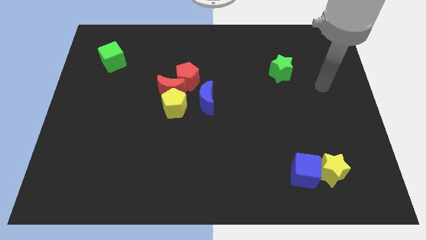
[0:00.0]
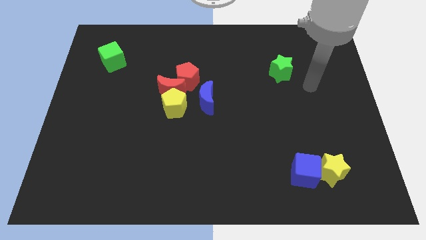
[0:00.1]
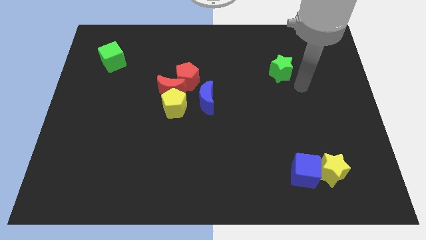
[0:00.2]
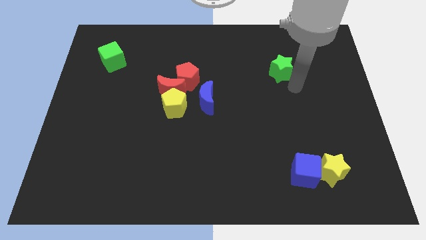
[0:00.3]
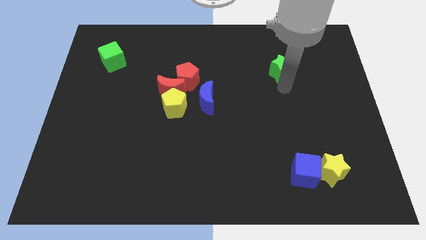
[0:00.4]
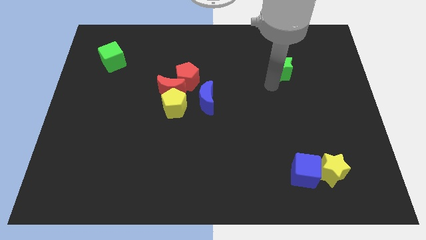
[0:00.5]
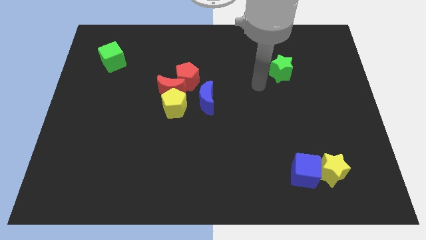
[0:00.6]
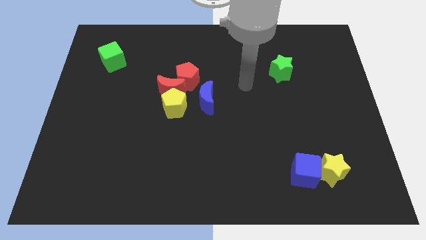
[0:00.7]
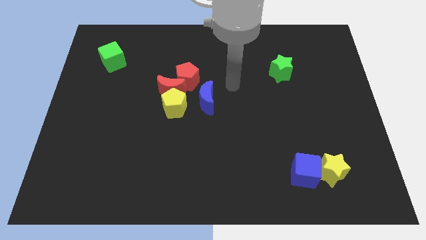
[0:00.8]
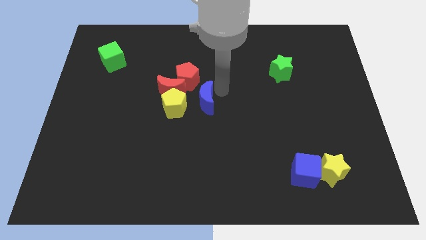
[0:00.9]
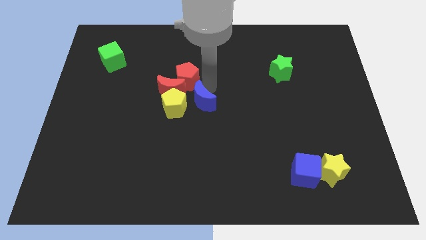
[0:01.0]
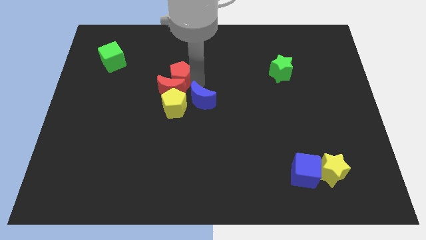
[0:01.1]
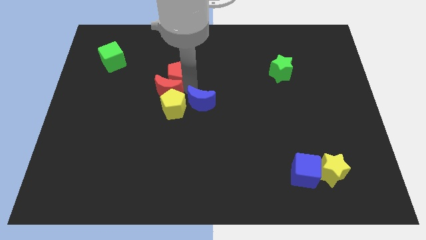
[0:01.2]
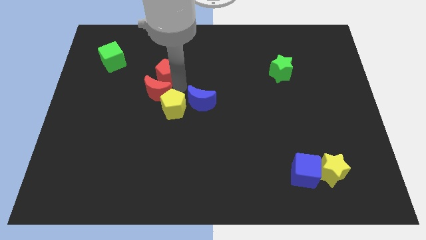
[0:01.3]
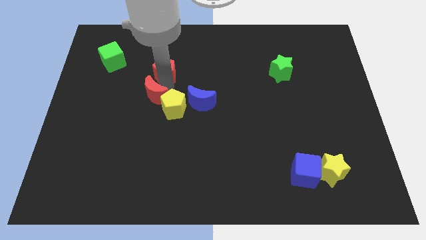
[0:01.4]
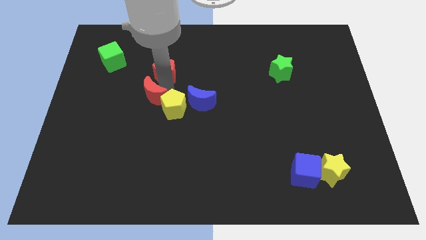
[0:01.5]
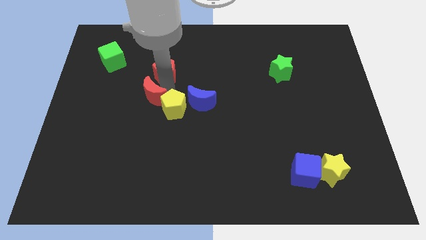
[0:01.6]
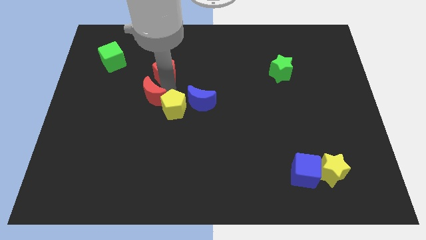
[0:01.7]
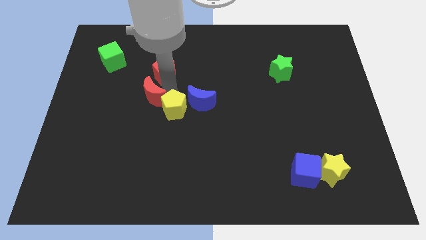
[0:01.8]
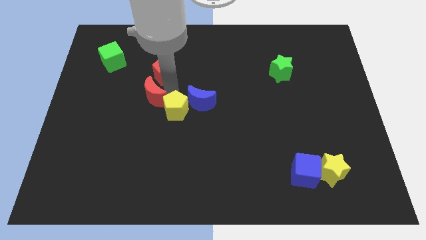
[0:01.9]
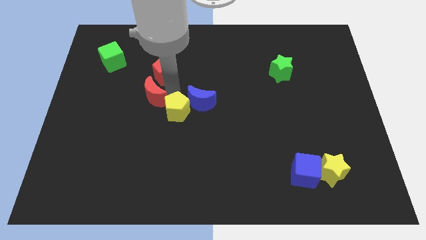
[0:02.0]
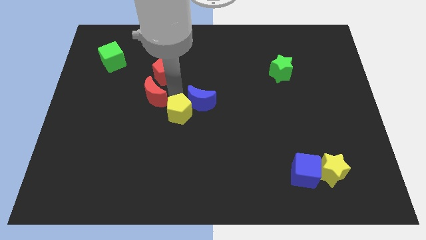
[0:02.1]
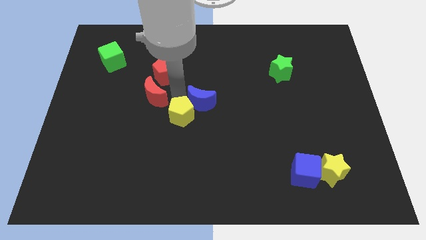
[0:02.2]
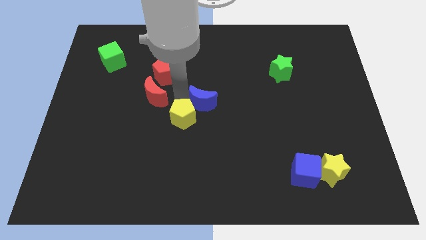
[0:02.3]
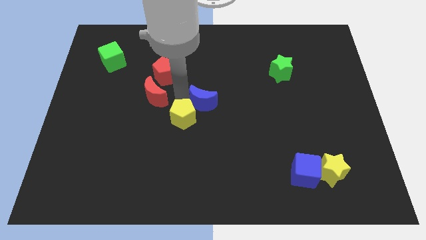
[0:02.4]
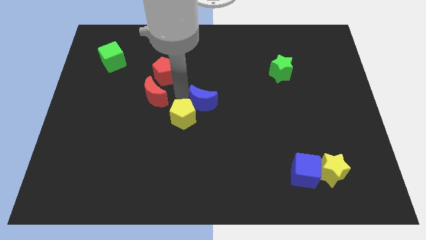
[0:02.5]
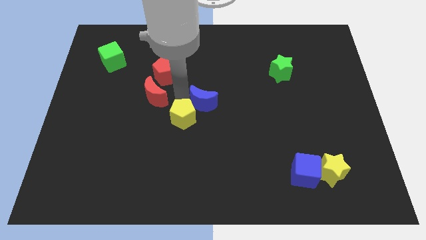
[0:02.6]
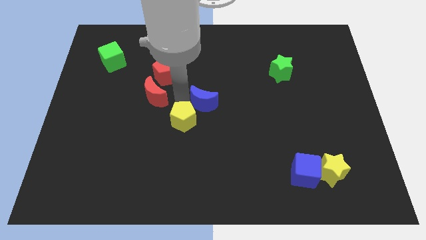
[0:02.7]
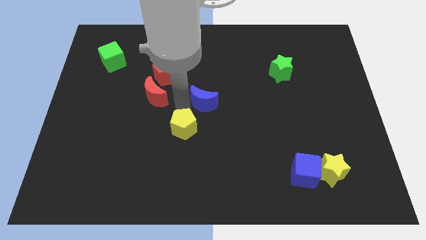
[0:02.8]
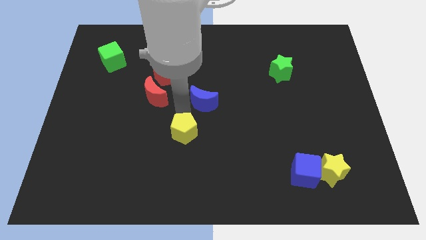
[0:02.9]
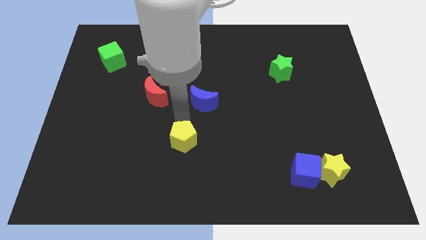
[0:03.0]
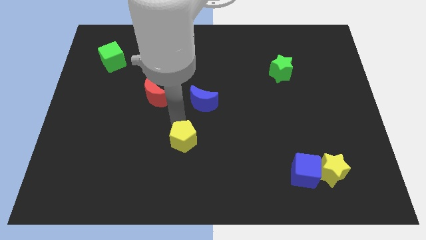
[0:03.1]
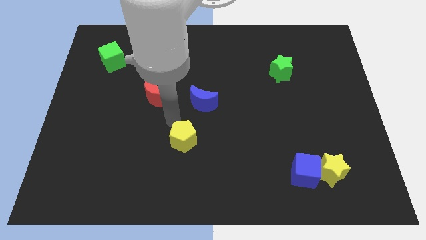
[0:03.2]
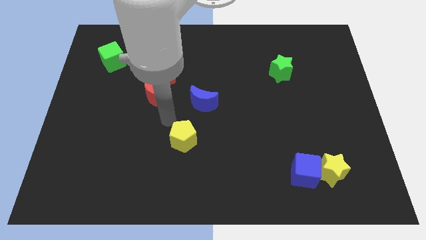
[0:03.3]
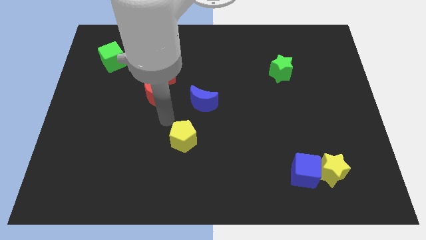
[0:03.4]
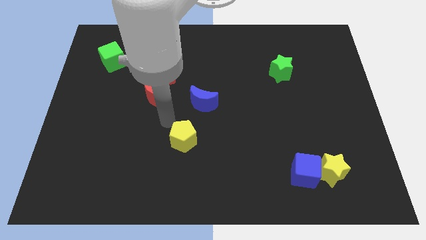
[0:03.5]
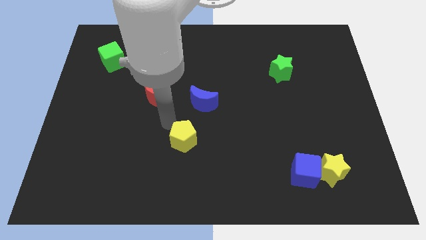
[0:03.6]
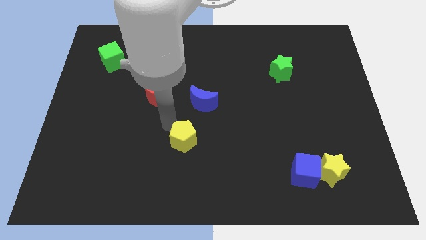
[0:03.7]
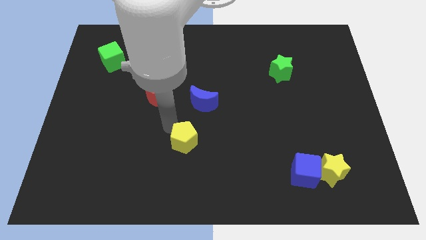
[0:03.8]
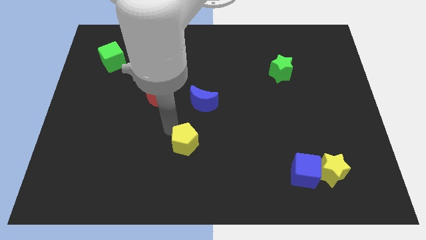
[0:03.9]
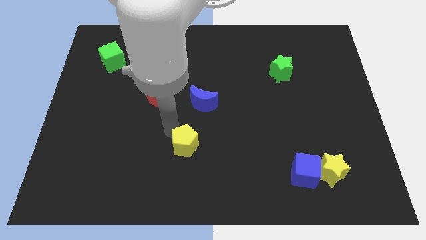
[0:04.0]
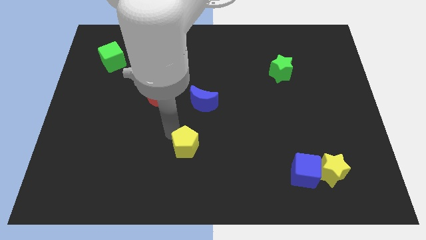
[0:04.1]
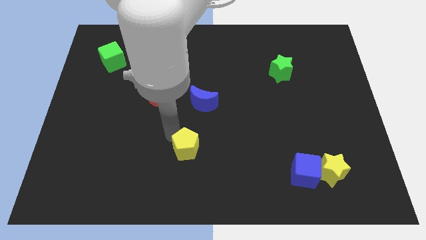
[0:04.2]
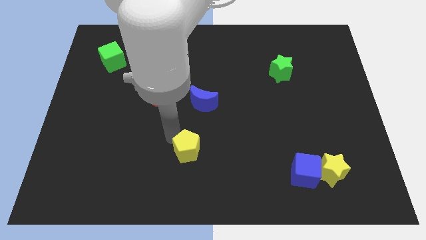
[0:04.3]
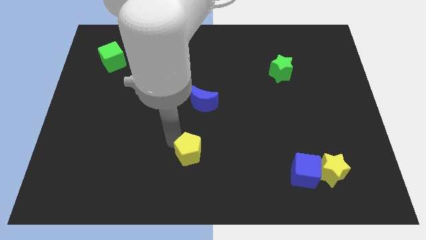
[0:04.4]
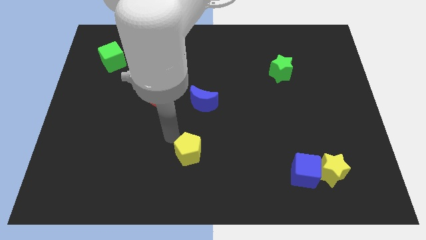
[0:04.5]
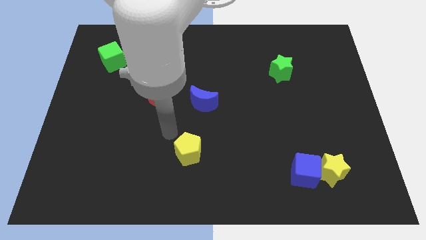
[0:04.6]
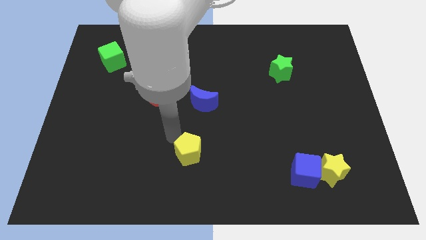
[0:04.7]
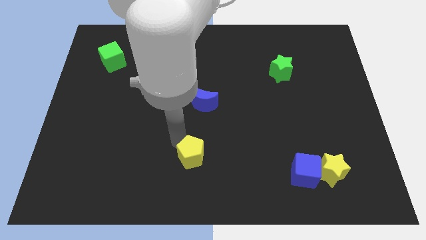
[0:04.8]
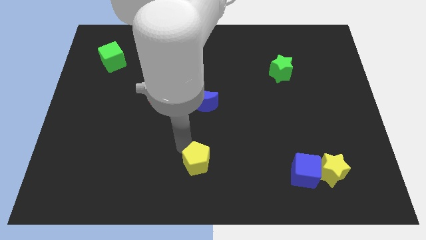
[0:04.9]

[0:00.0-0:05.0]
move the yellow pentagon to the bottom side

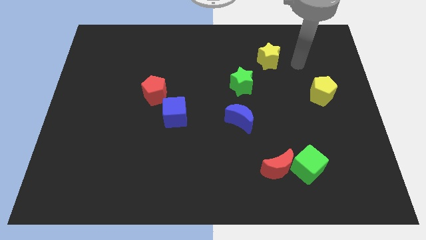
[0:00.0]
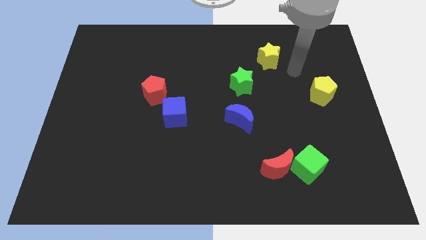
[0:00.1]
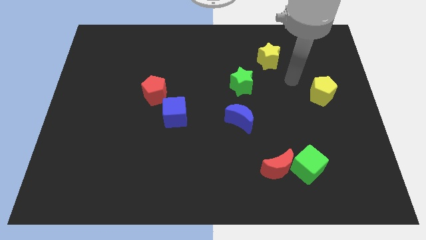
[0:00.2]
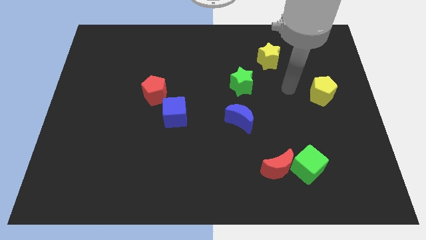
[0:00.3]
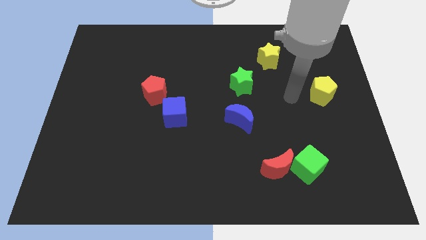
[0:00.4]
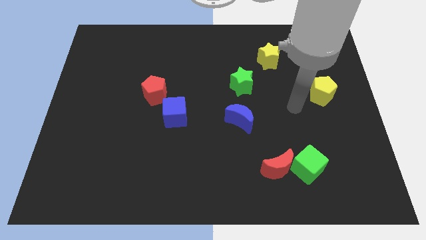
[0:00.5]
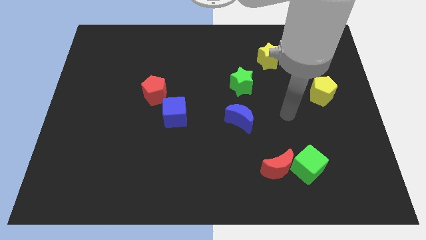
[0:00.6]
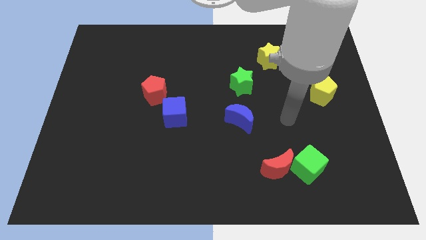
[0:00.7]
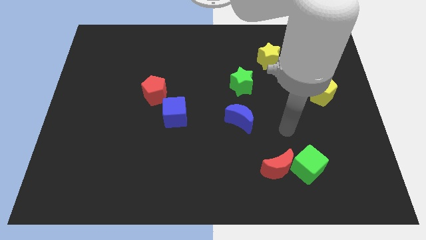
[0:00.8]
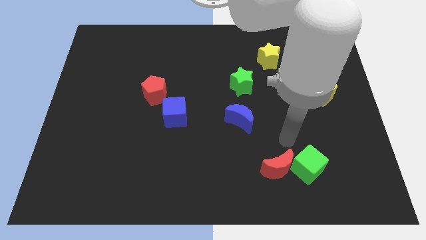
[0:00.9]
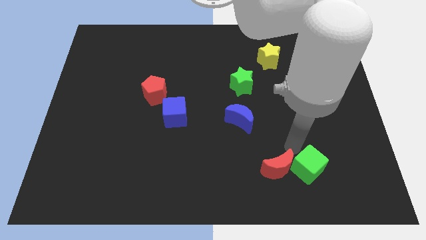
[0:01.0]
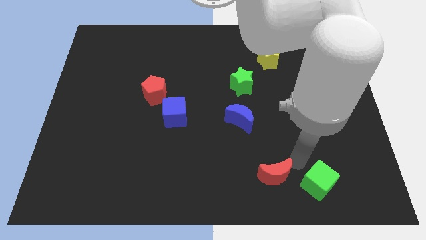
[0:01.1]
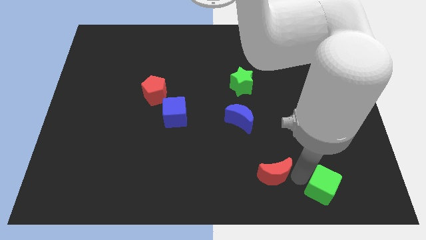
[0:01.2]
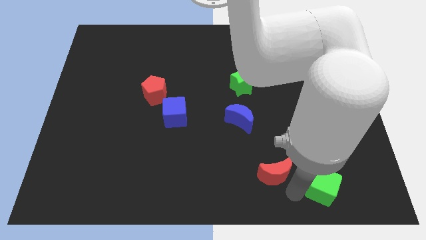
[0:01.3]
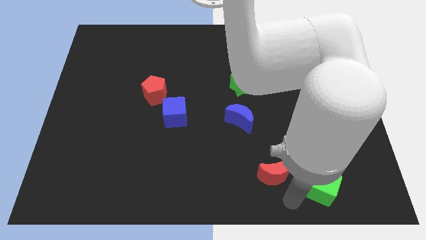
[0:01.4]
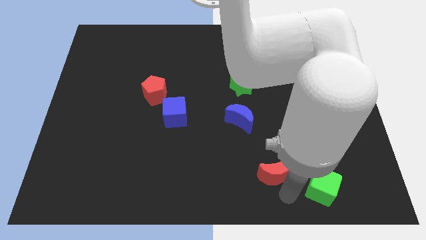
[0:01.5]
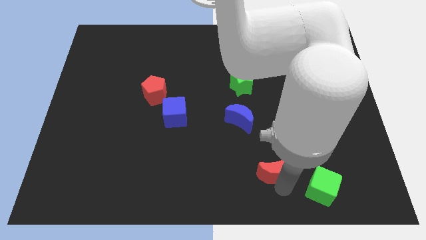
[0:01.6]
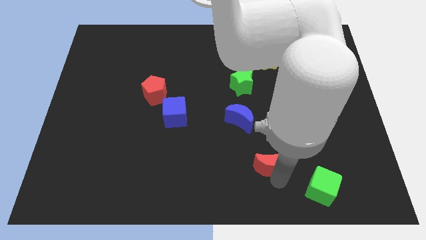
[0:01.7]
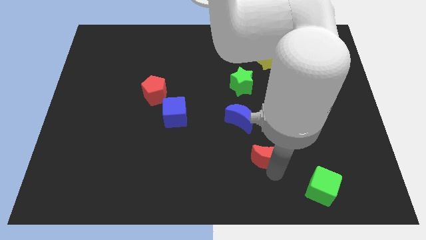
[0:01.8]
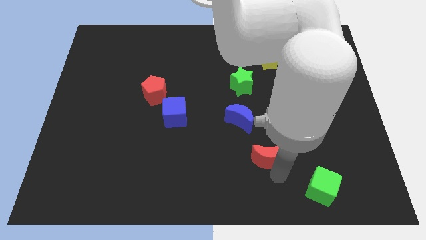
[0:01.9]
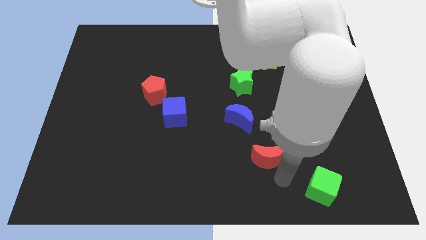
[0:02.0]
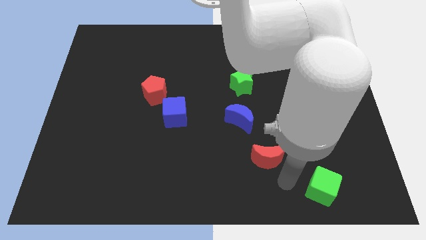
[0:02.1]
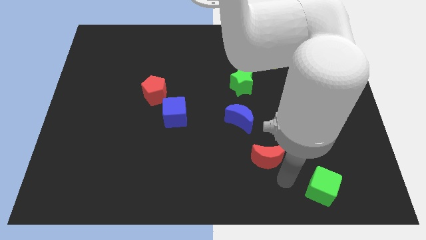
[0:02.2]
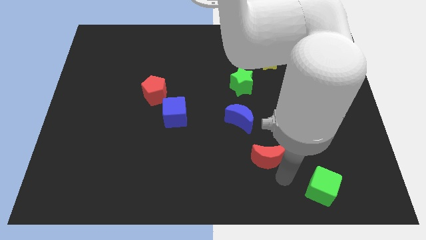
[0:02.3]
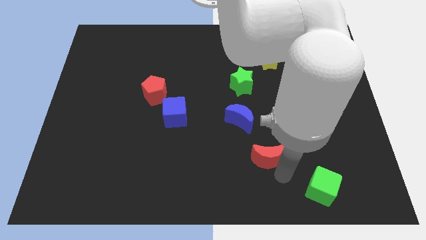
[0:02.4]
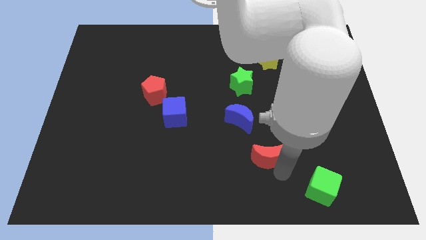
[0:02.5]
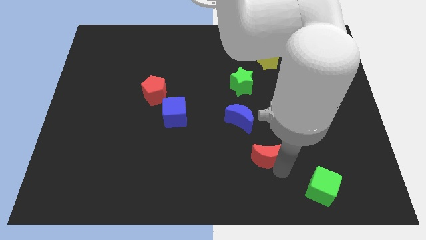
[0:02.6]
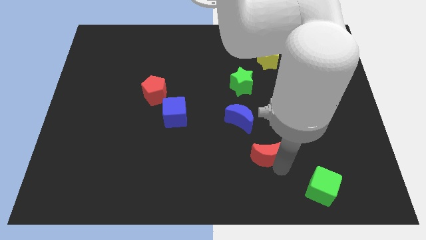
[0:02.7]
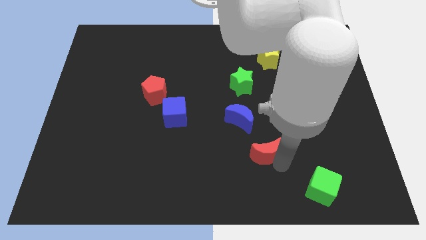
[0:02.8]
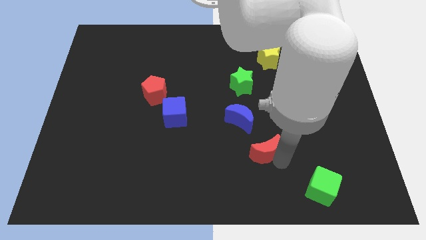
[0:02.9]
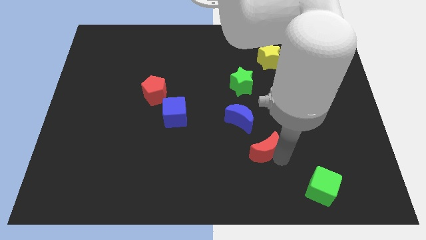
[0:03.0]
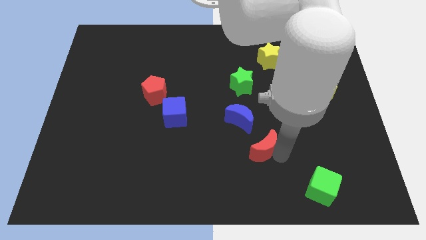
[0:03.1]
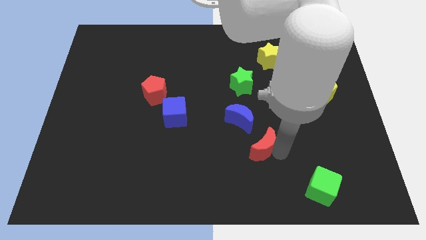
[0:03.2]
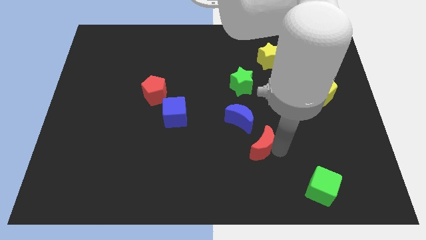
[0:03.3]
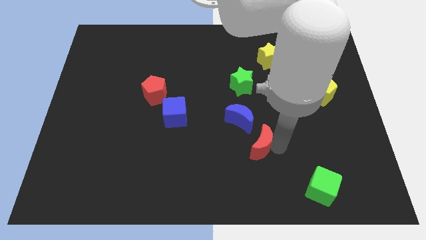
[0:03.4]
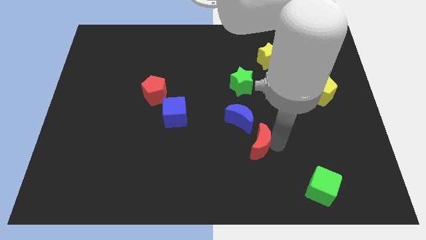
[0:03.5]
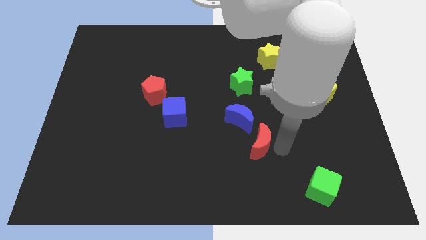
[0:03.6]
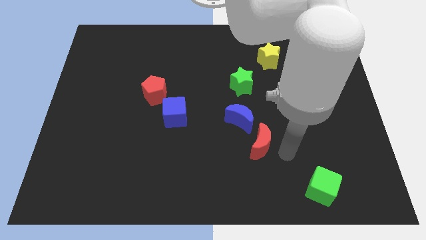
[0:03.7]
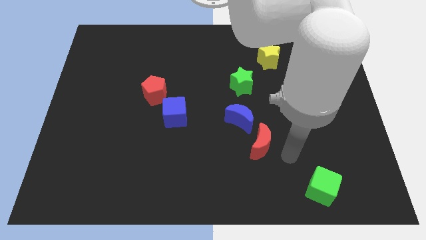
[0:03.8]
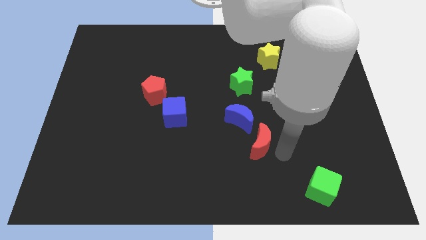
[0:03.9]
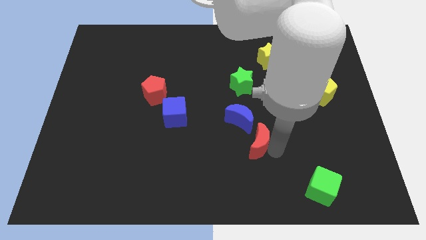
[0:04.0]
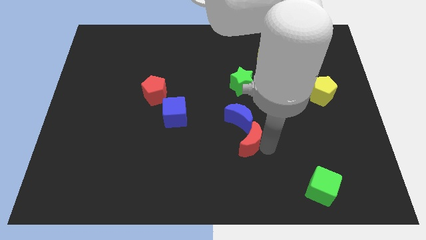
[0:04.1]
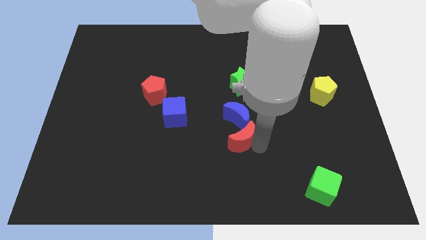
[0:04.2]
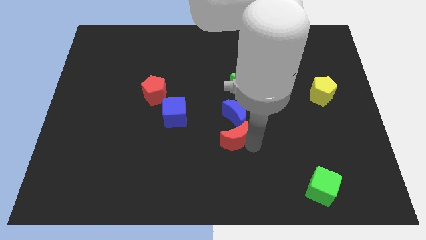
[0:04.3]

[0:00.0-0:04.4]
slide the red moon to the middle
